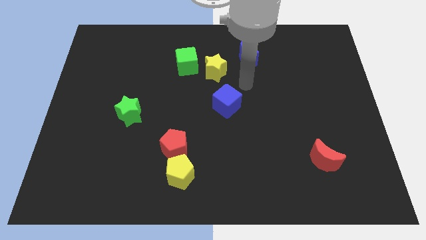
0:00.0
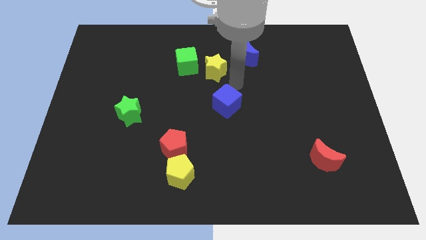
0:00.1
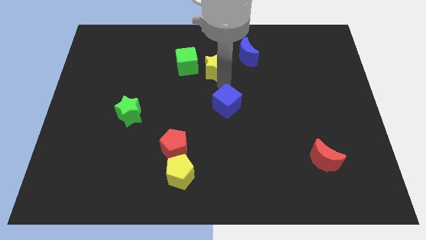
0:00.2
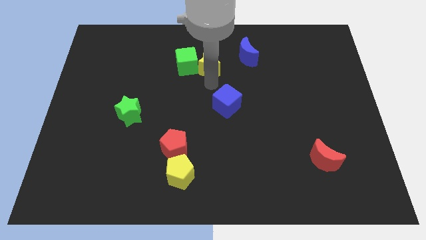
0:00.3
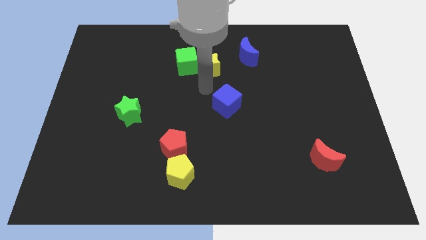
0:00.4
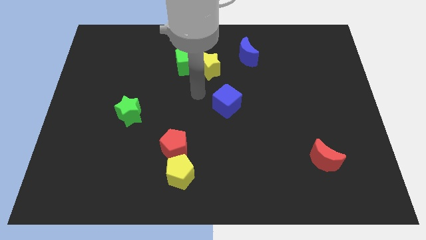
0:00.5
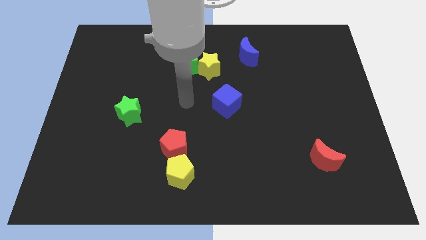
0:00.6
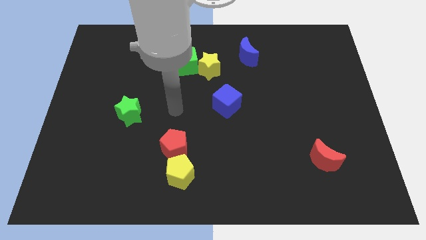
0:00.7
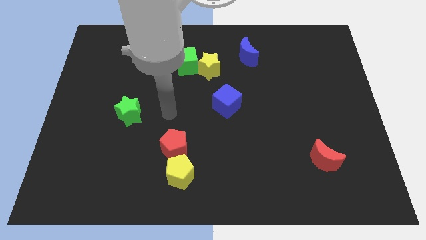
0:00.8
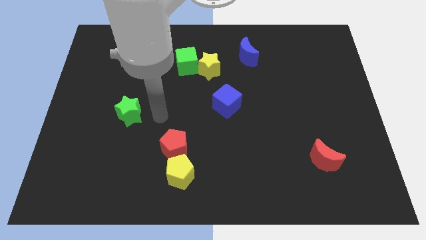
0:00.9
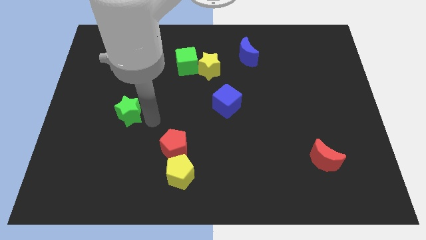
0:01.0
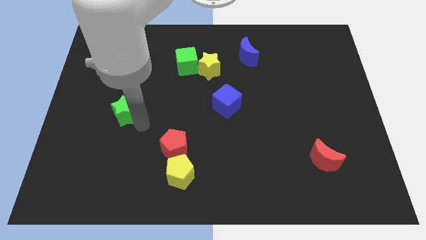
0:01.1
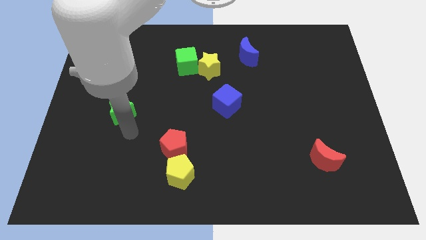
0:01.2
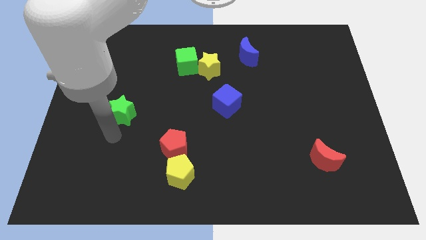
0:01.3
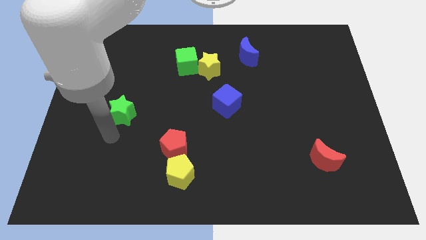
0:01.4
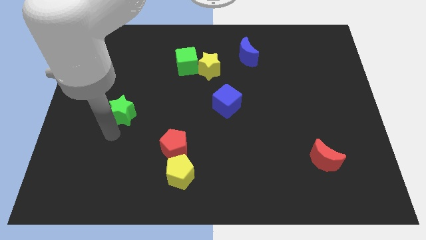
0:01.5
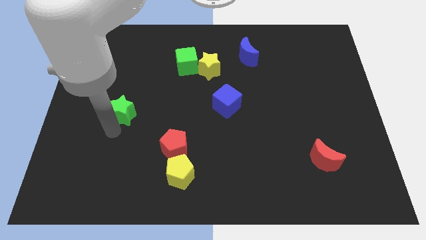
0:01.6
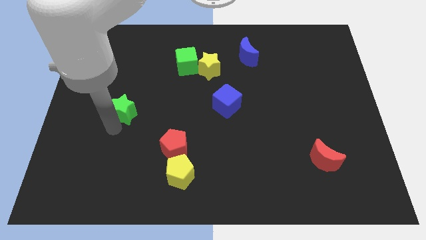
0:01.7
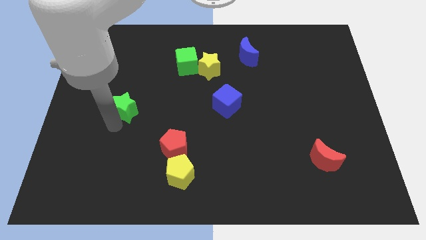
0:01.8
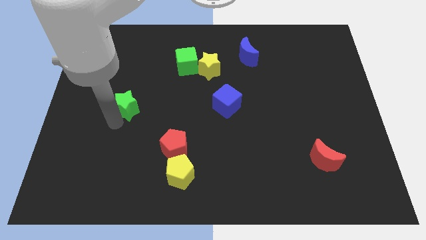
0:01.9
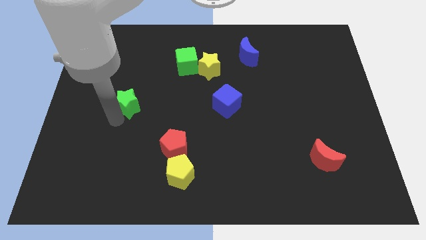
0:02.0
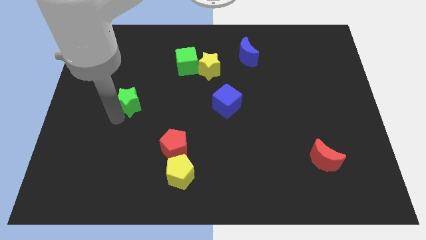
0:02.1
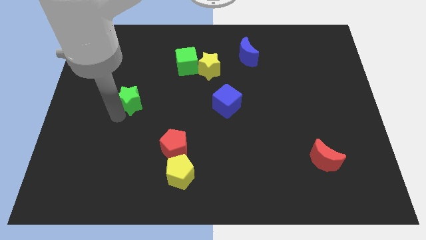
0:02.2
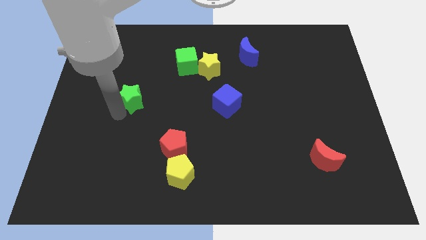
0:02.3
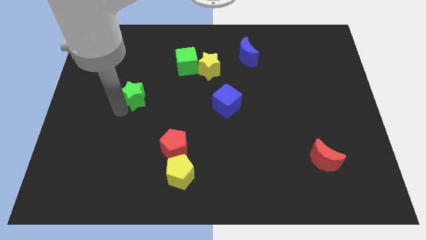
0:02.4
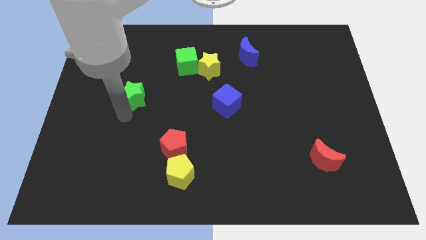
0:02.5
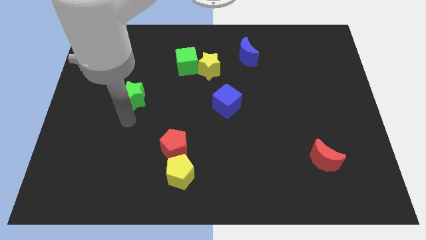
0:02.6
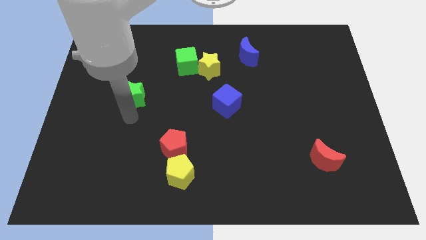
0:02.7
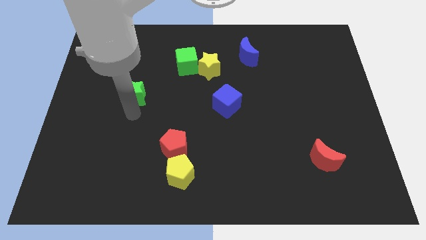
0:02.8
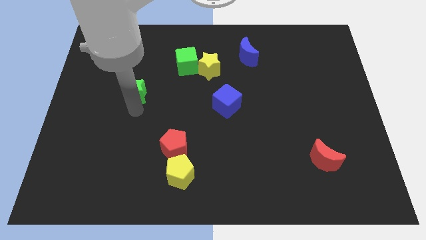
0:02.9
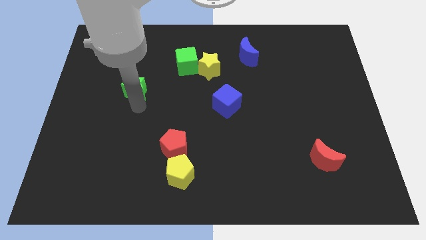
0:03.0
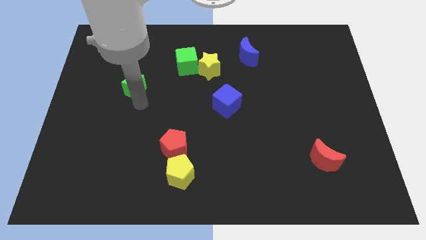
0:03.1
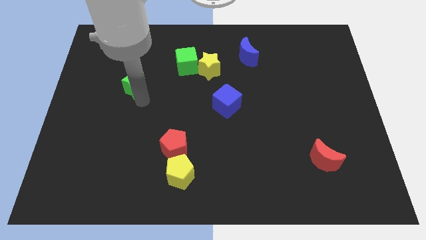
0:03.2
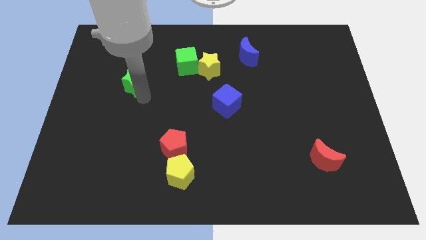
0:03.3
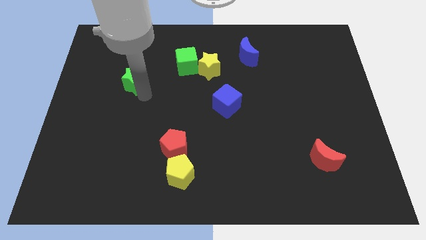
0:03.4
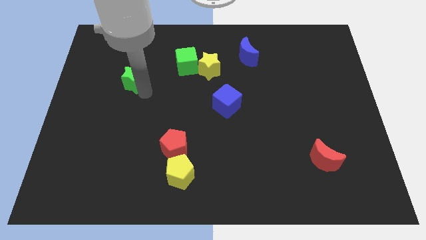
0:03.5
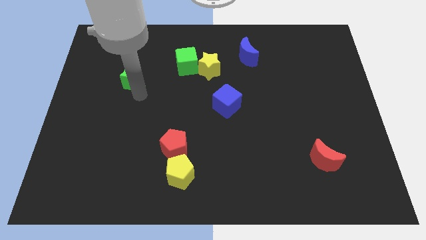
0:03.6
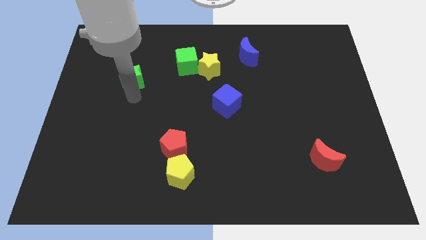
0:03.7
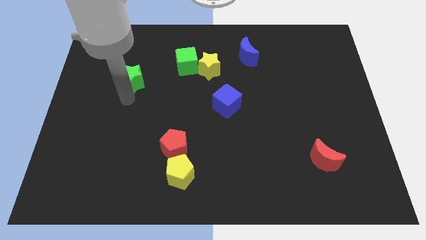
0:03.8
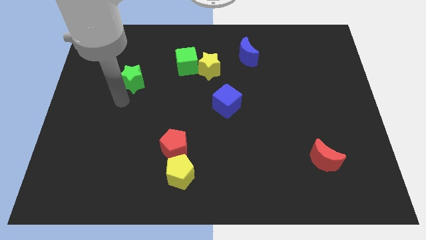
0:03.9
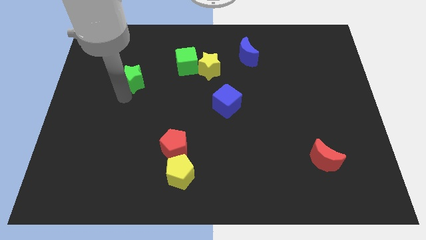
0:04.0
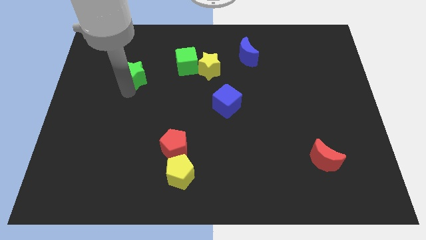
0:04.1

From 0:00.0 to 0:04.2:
push the green star left of the green cube

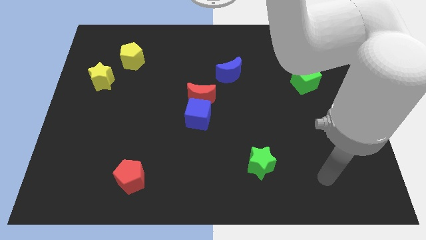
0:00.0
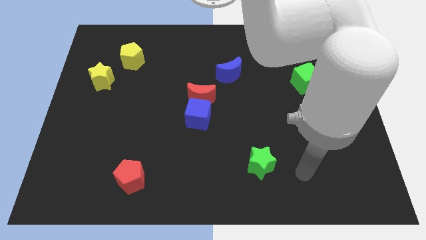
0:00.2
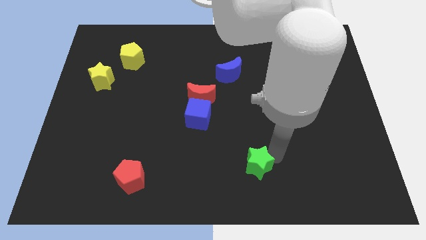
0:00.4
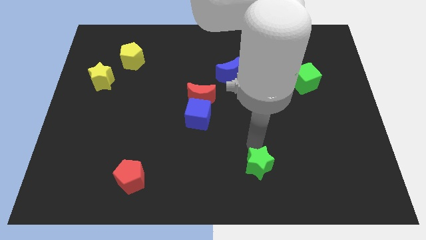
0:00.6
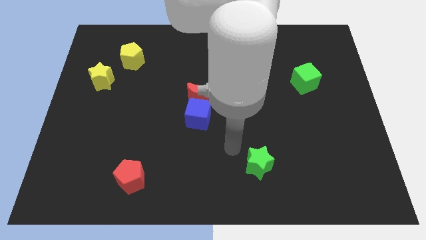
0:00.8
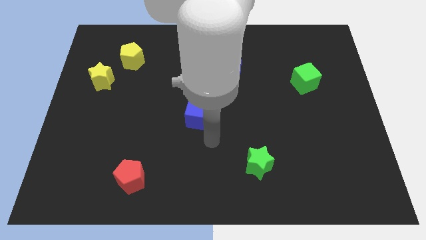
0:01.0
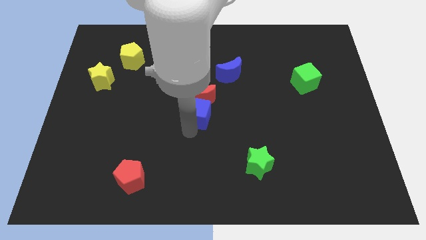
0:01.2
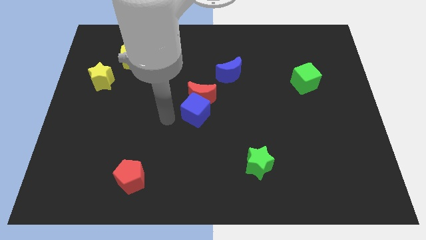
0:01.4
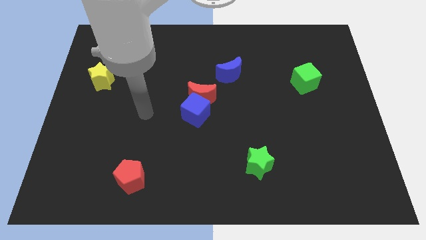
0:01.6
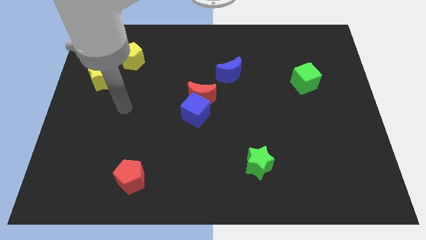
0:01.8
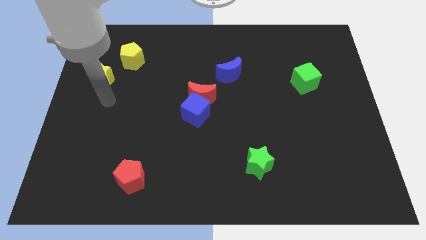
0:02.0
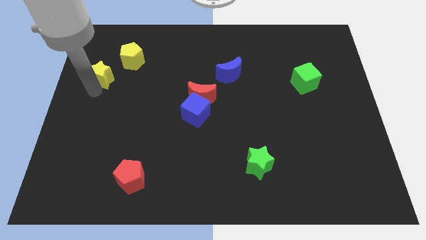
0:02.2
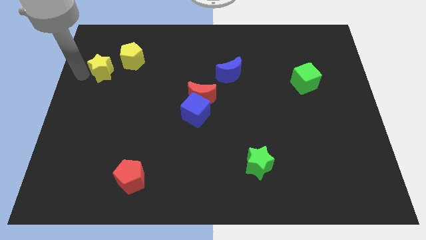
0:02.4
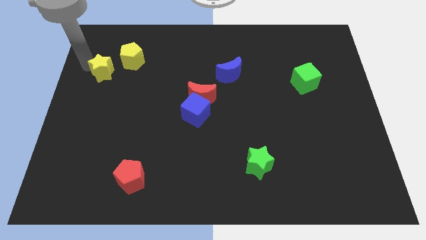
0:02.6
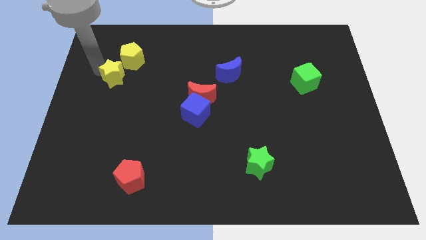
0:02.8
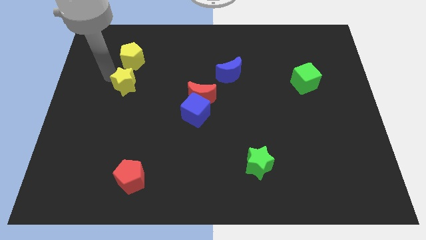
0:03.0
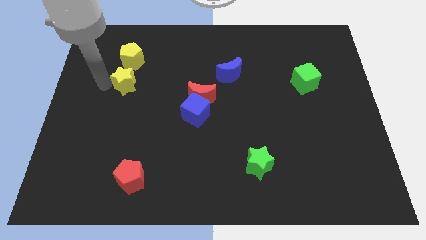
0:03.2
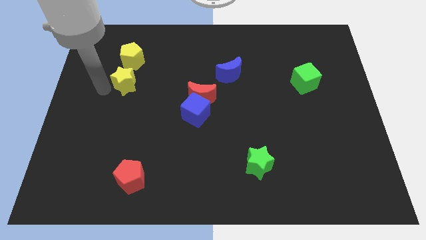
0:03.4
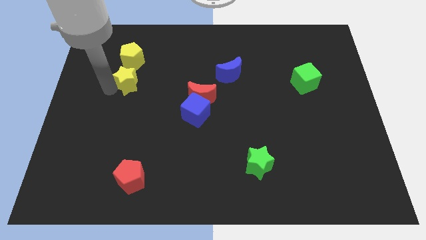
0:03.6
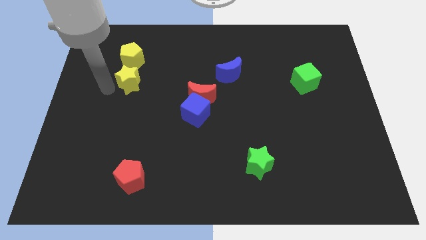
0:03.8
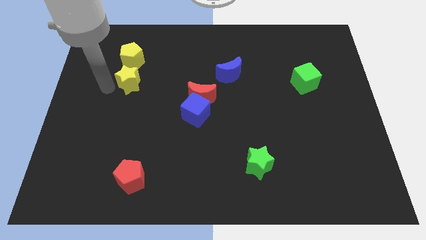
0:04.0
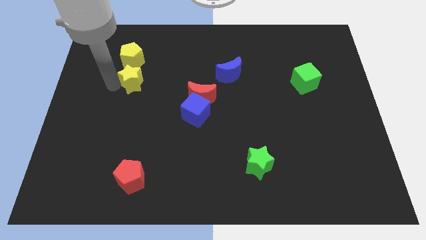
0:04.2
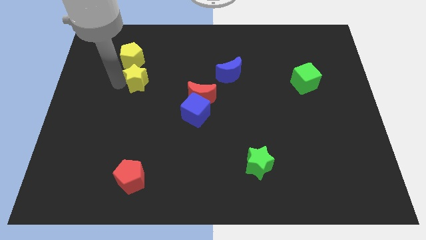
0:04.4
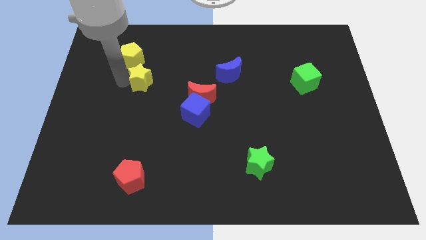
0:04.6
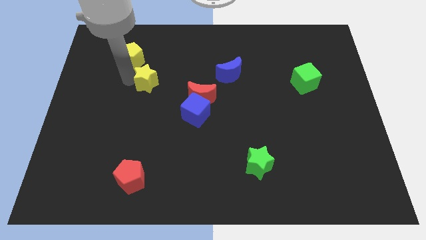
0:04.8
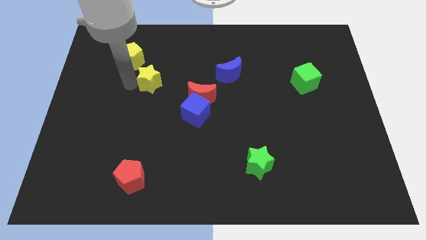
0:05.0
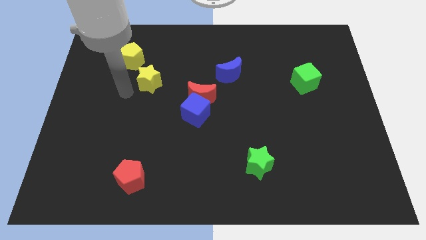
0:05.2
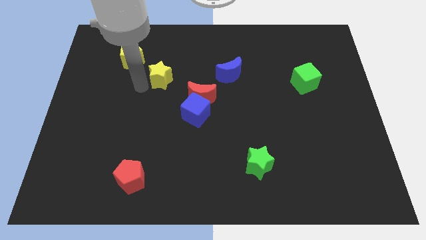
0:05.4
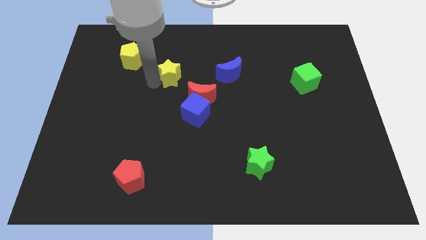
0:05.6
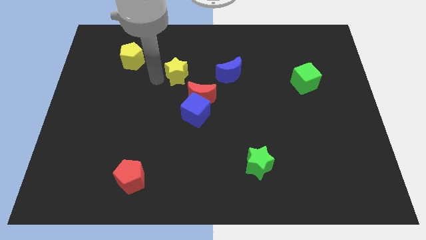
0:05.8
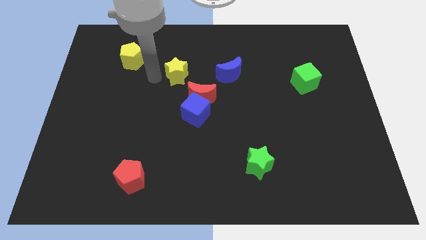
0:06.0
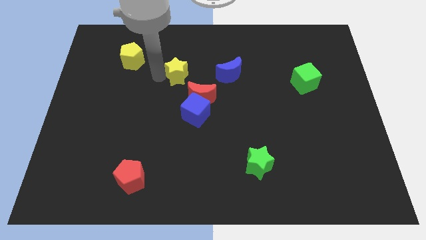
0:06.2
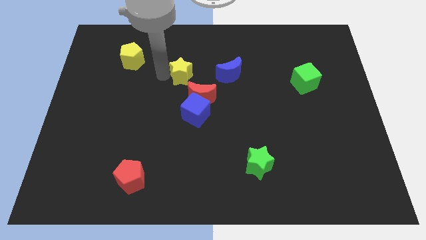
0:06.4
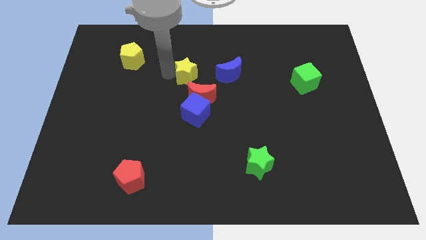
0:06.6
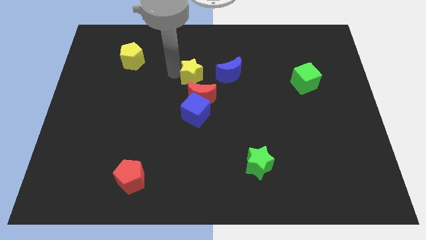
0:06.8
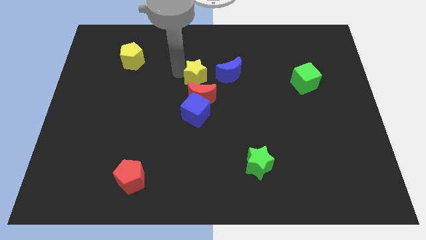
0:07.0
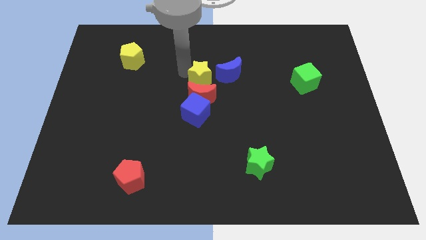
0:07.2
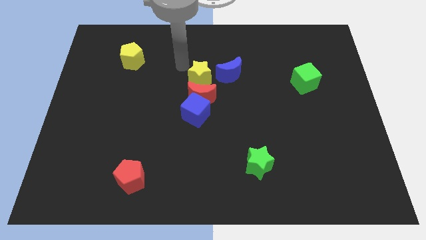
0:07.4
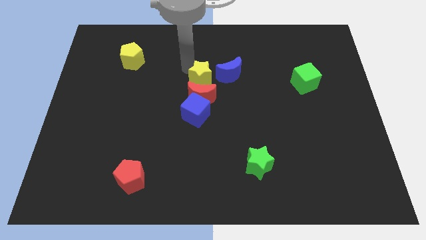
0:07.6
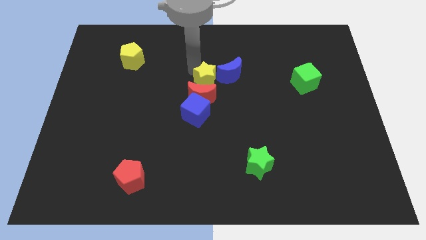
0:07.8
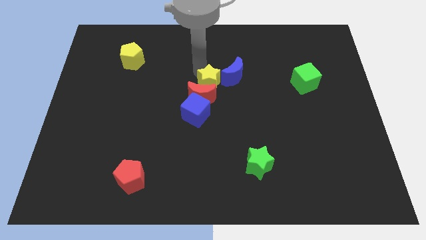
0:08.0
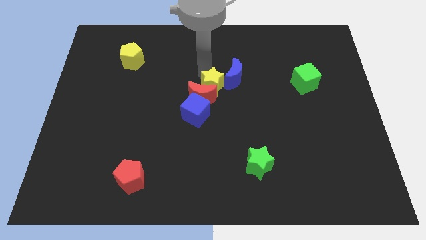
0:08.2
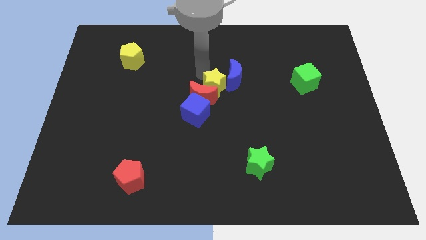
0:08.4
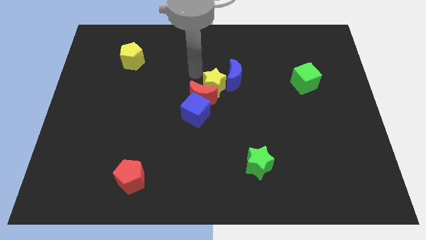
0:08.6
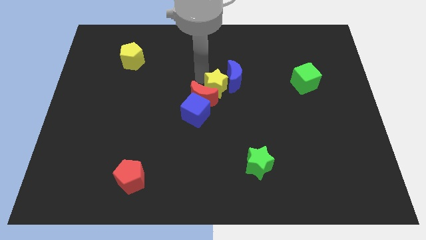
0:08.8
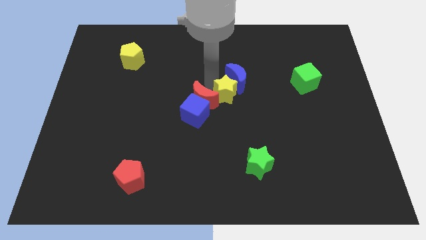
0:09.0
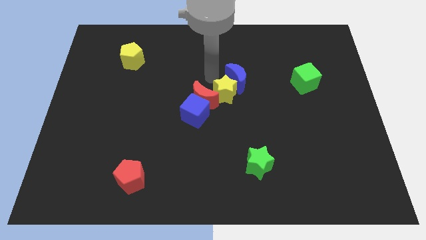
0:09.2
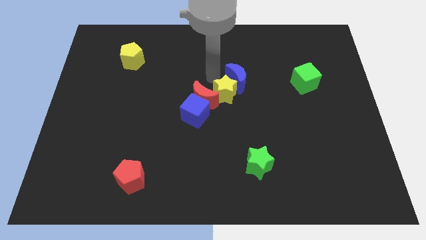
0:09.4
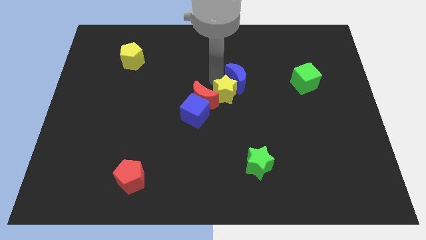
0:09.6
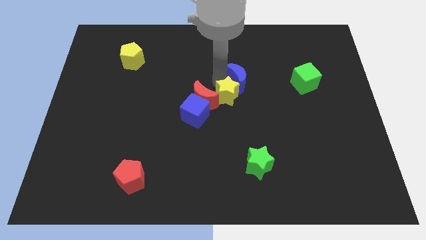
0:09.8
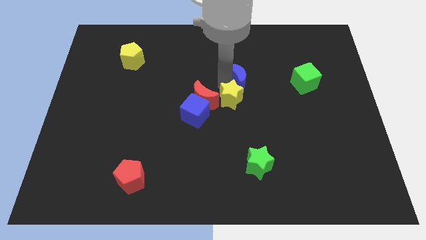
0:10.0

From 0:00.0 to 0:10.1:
move the yellow star to the right side of the blue cube
